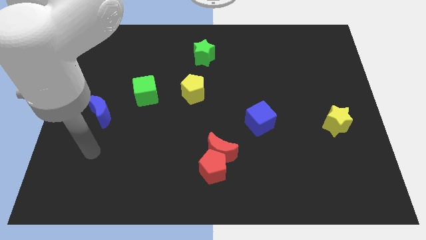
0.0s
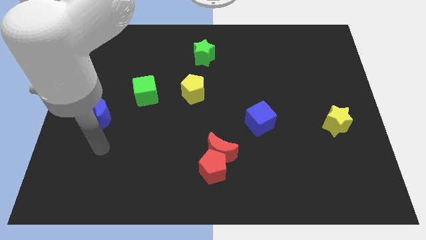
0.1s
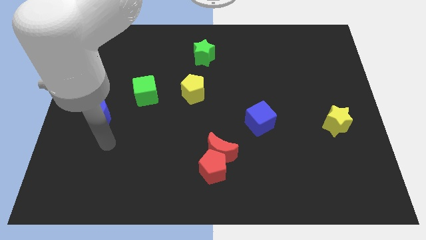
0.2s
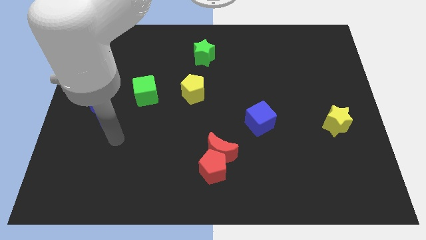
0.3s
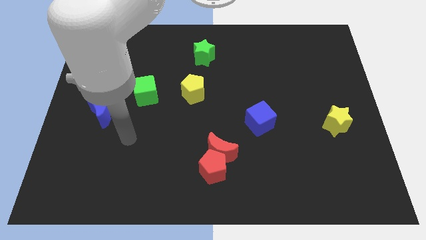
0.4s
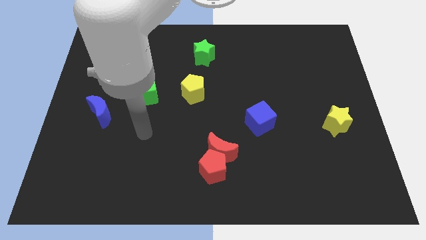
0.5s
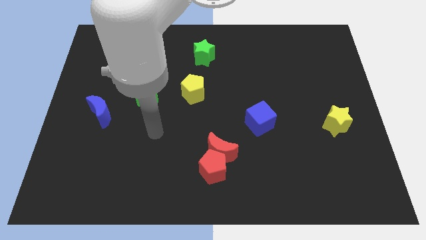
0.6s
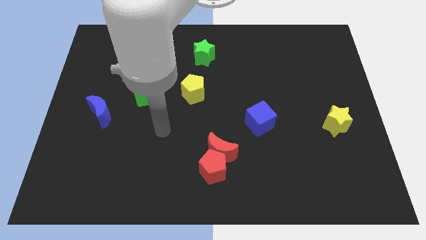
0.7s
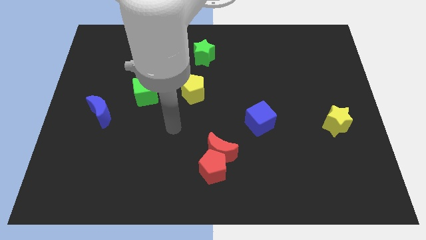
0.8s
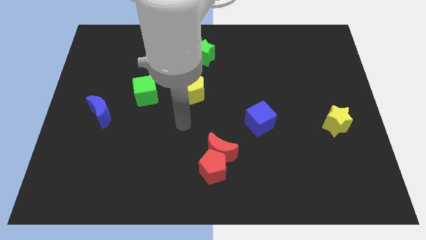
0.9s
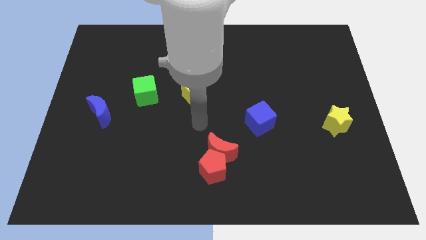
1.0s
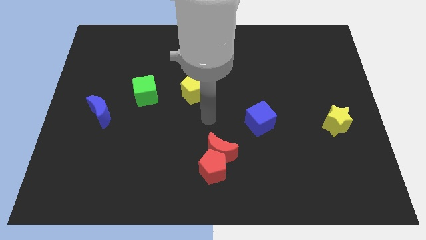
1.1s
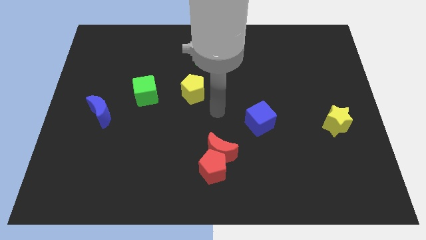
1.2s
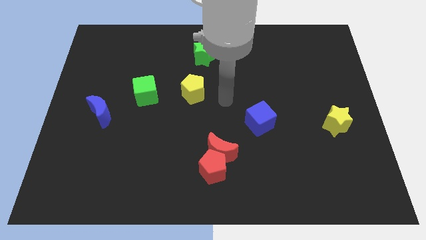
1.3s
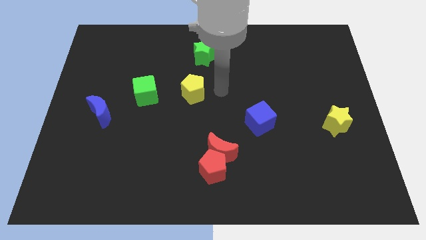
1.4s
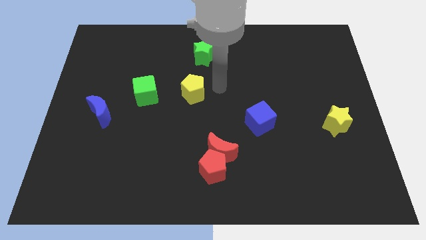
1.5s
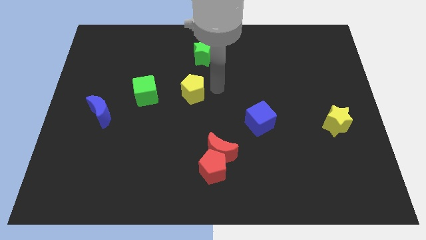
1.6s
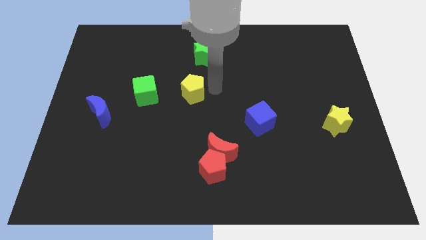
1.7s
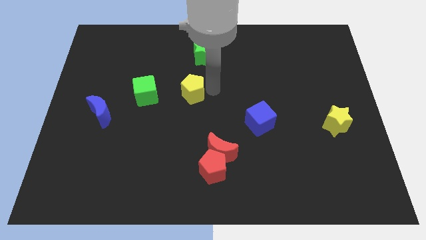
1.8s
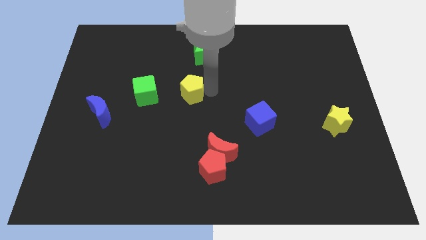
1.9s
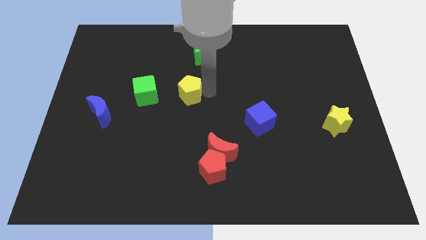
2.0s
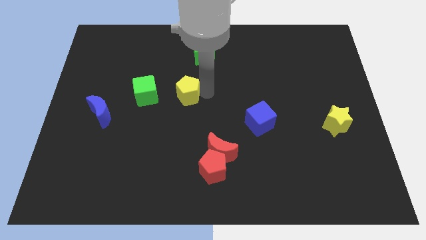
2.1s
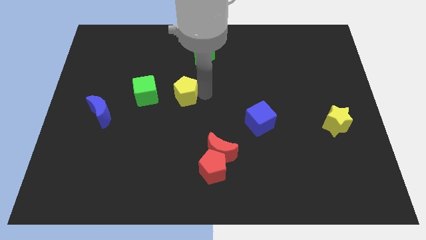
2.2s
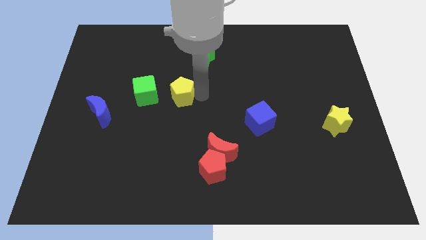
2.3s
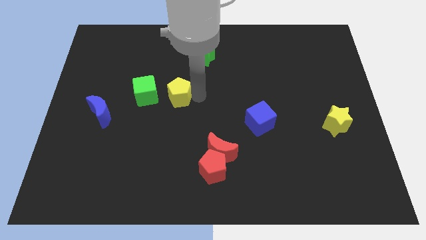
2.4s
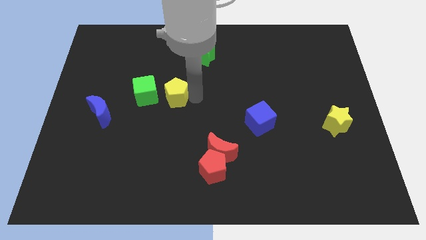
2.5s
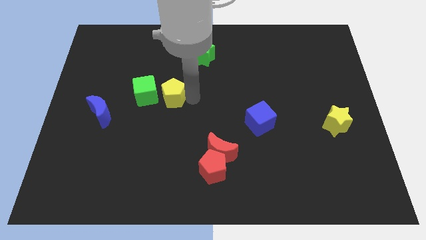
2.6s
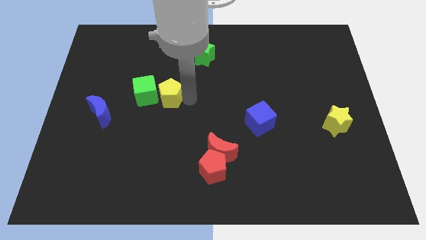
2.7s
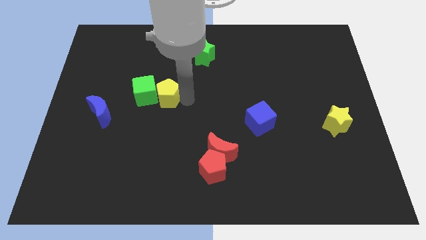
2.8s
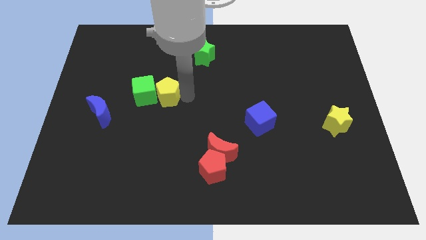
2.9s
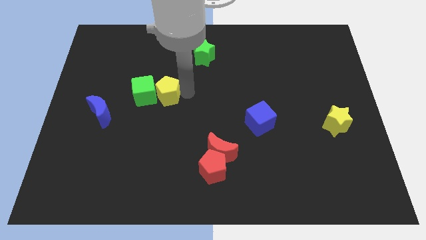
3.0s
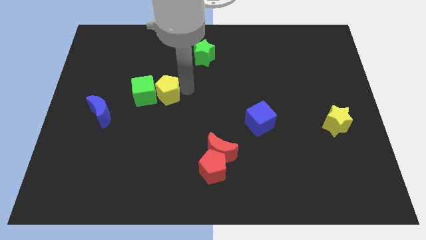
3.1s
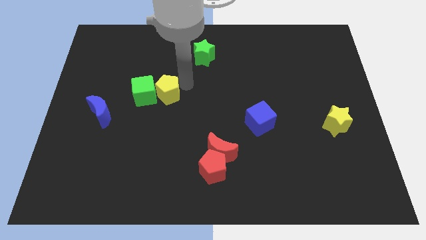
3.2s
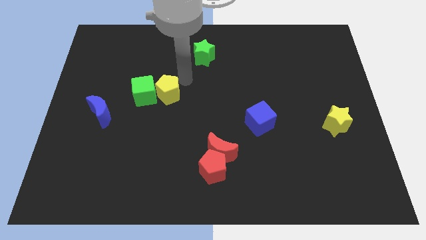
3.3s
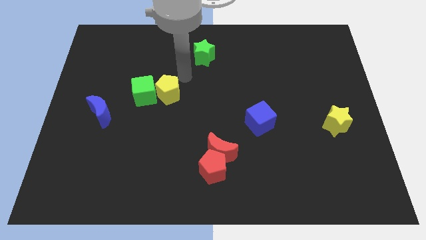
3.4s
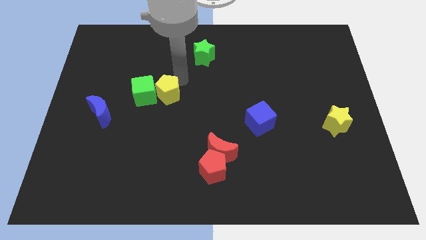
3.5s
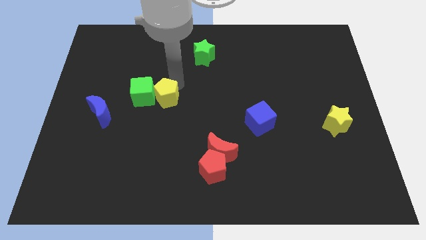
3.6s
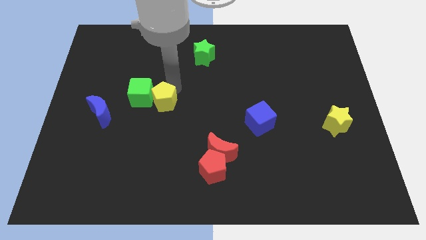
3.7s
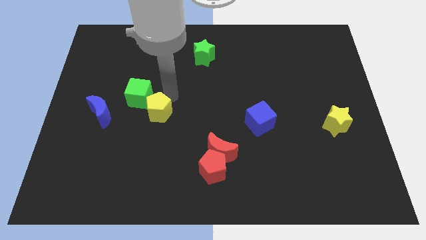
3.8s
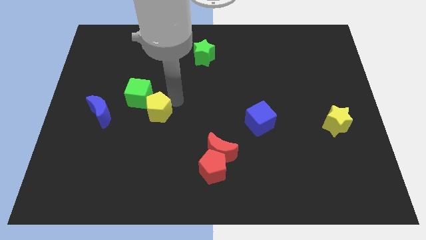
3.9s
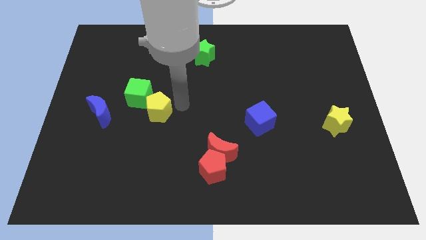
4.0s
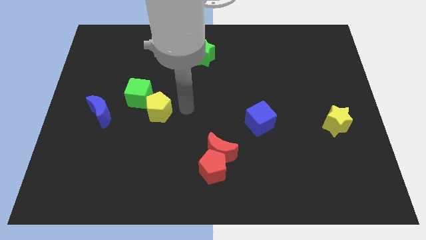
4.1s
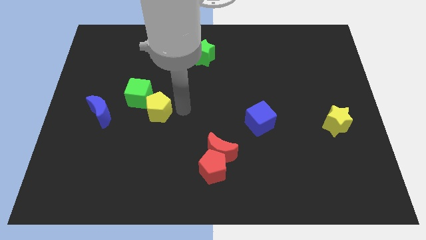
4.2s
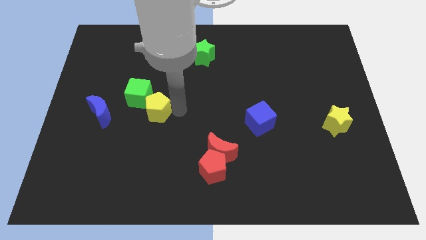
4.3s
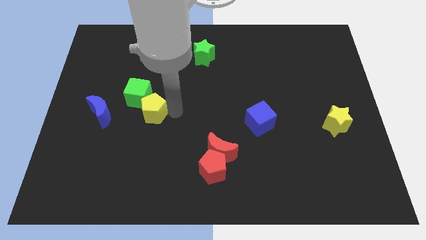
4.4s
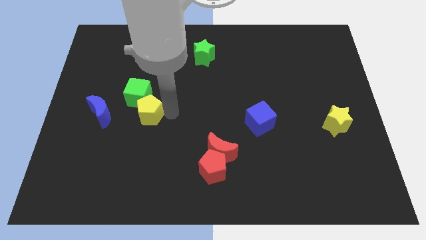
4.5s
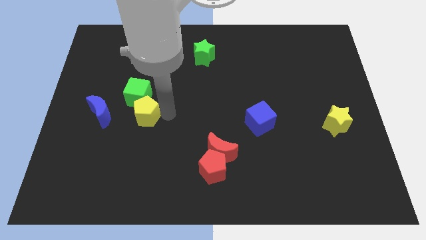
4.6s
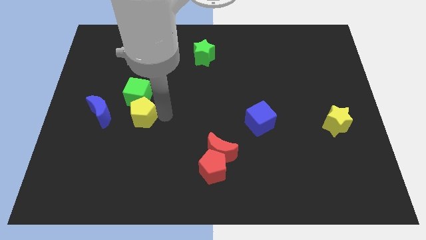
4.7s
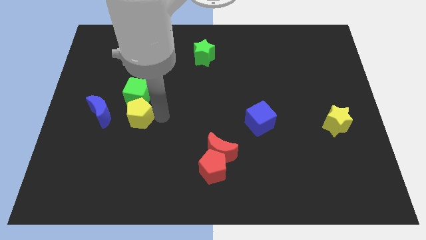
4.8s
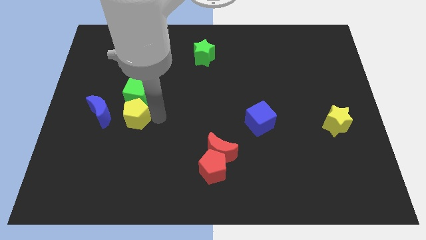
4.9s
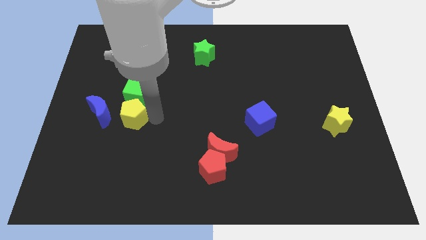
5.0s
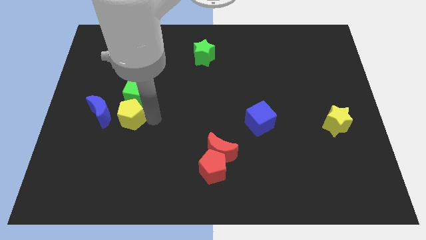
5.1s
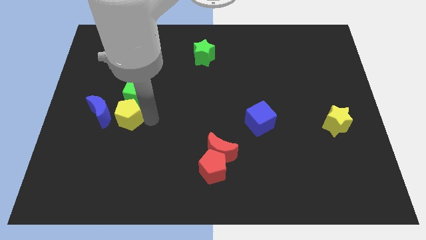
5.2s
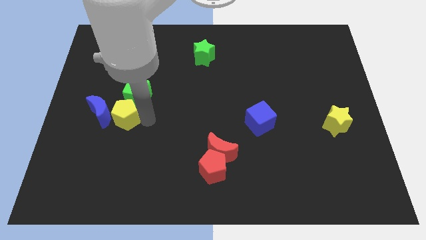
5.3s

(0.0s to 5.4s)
move the yellow pentagon to the blue moon
